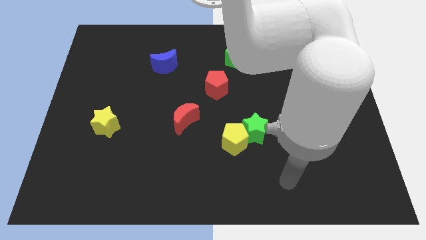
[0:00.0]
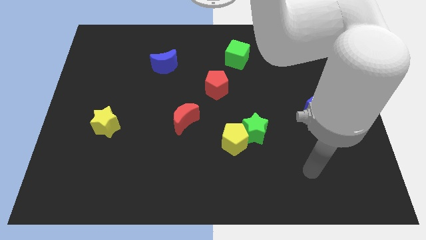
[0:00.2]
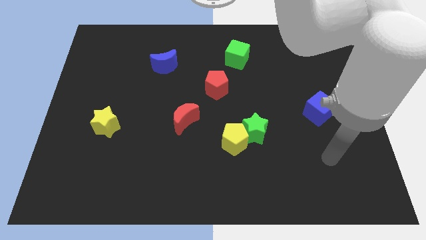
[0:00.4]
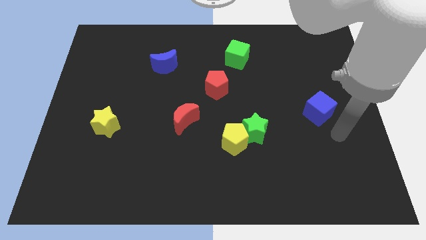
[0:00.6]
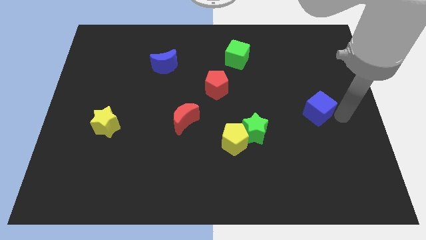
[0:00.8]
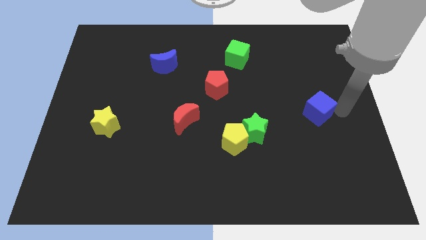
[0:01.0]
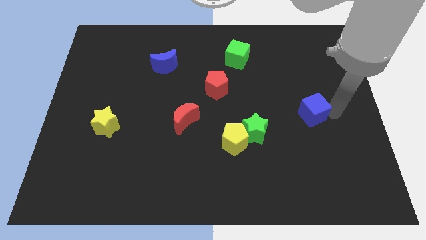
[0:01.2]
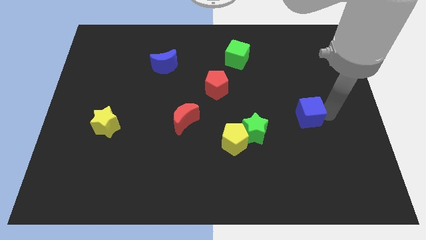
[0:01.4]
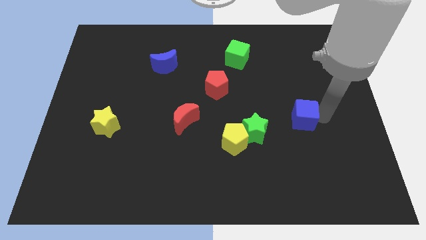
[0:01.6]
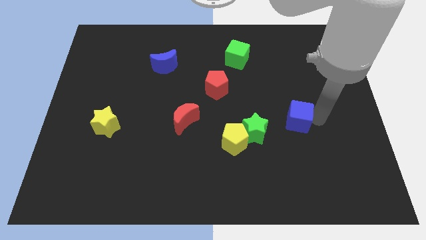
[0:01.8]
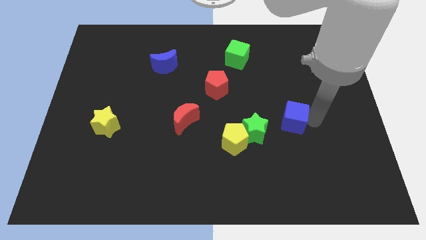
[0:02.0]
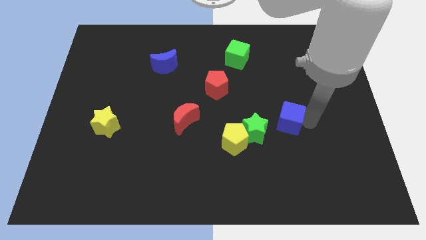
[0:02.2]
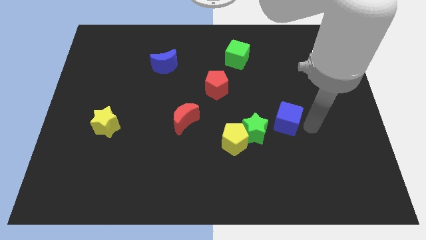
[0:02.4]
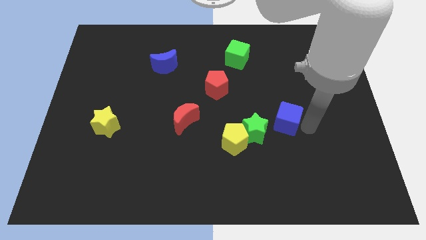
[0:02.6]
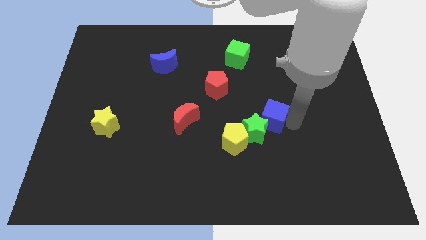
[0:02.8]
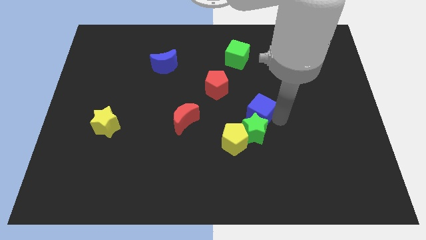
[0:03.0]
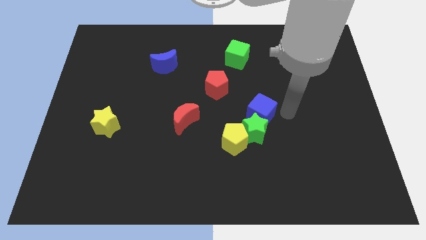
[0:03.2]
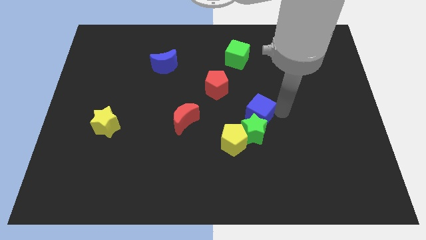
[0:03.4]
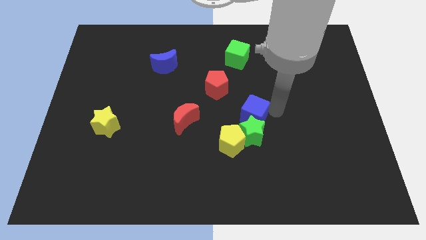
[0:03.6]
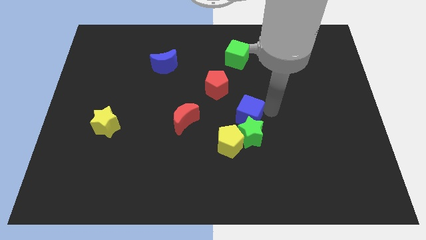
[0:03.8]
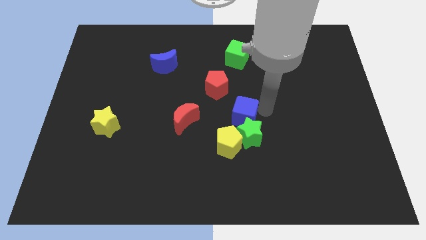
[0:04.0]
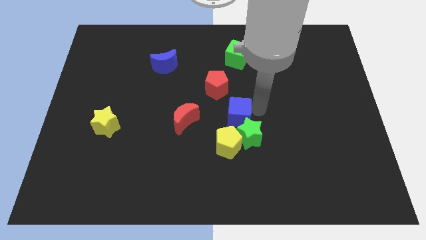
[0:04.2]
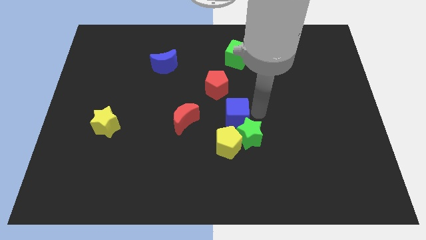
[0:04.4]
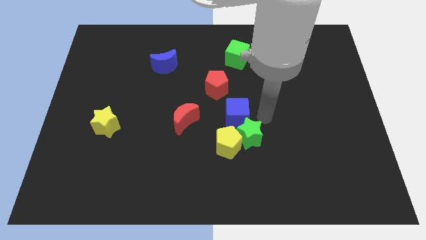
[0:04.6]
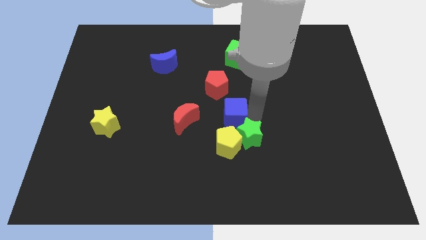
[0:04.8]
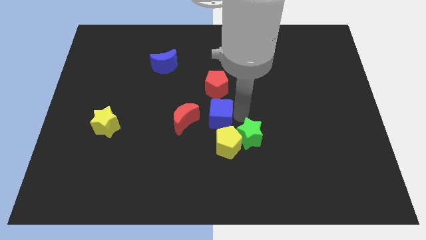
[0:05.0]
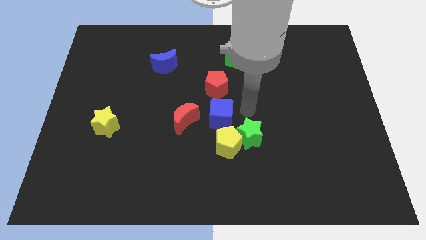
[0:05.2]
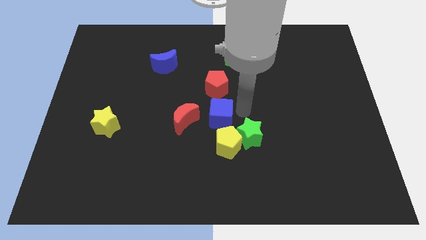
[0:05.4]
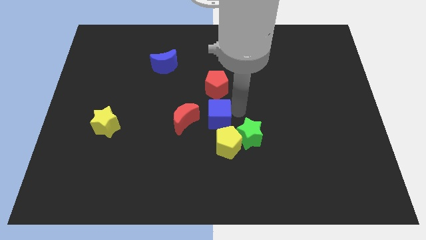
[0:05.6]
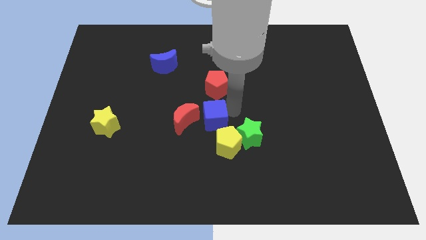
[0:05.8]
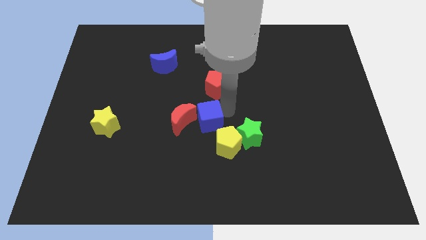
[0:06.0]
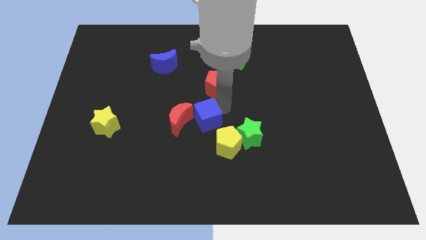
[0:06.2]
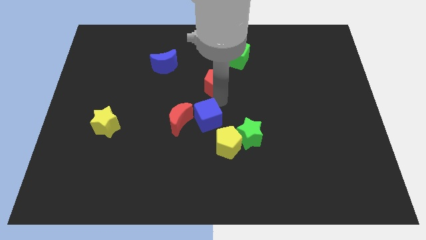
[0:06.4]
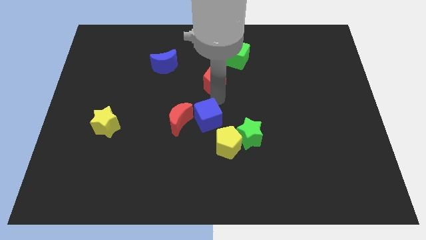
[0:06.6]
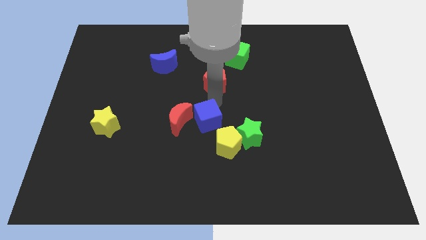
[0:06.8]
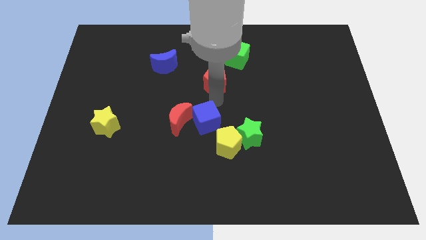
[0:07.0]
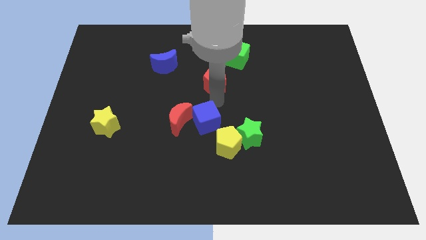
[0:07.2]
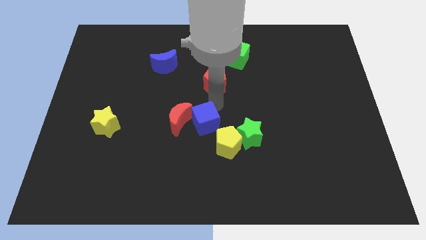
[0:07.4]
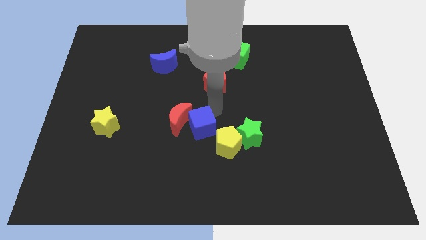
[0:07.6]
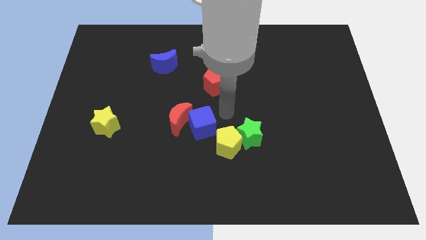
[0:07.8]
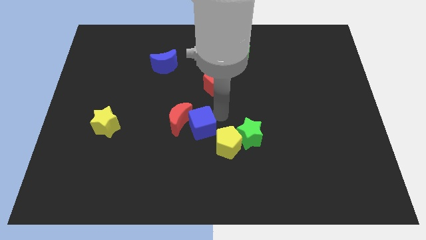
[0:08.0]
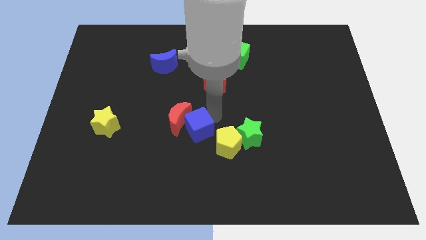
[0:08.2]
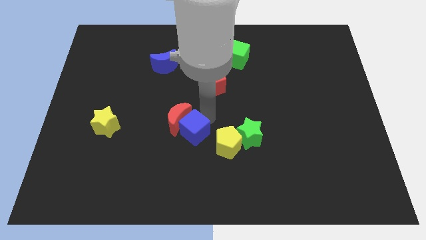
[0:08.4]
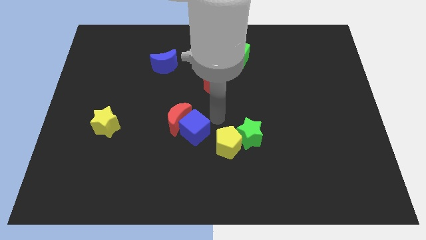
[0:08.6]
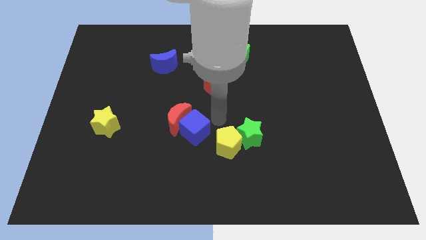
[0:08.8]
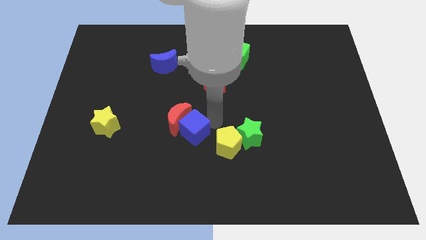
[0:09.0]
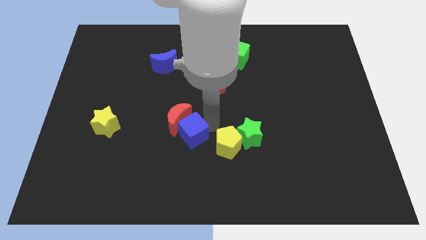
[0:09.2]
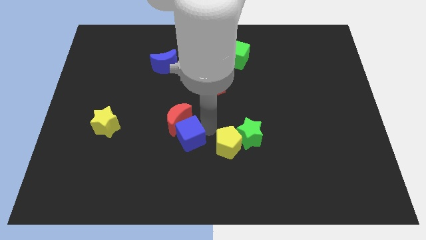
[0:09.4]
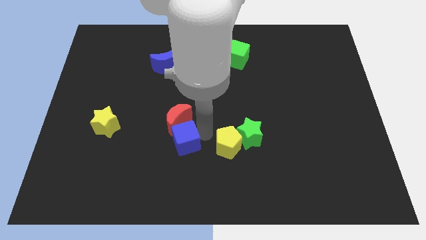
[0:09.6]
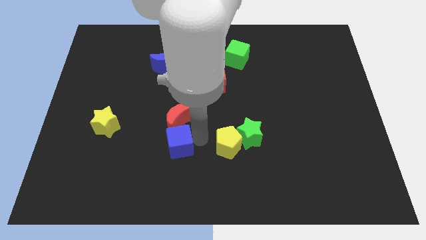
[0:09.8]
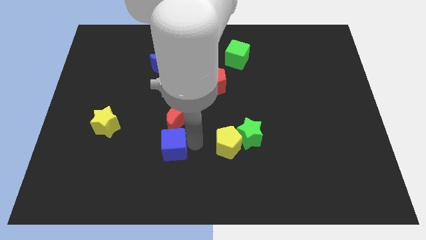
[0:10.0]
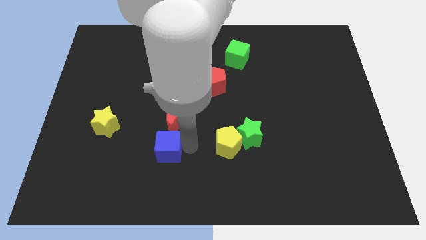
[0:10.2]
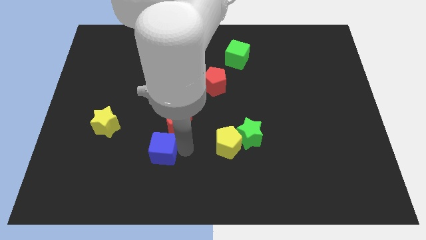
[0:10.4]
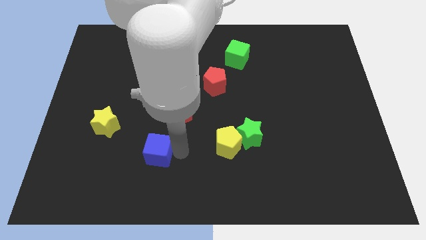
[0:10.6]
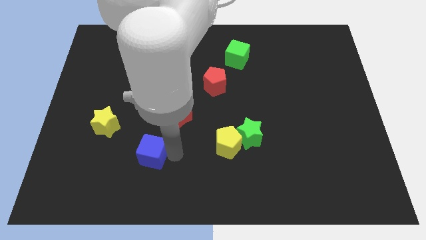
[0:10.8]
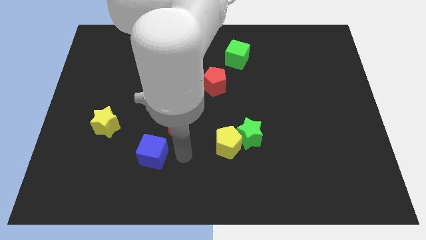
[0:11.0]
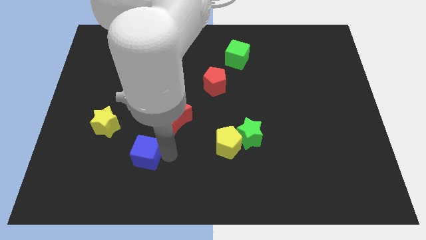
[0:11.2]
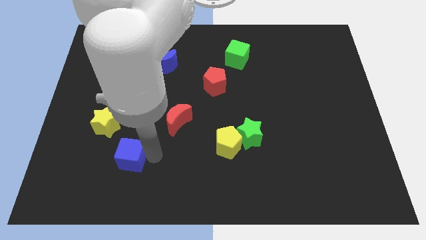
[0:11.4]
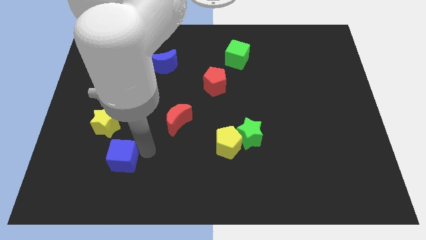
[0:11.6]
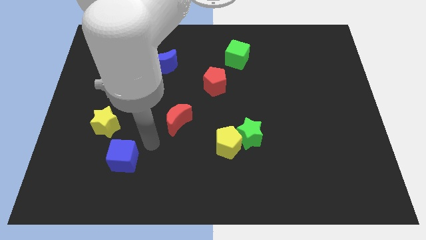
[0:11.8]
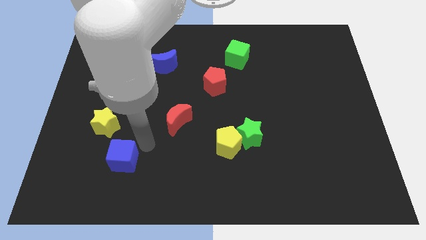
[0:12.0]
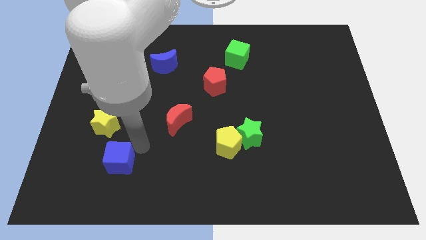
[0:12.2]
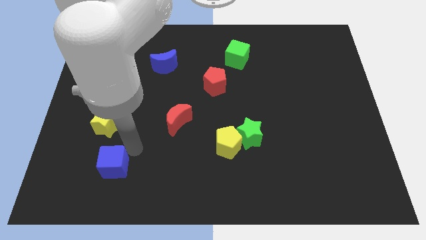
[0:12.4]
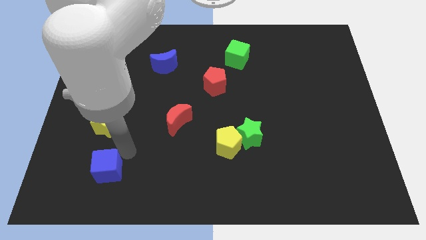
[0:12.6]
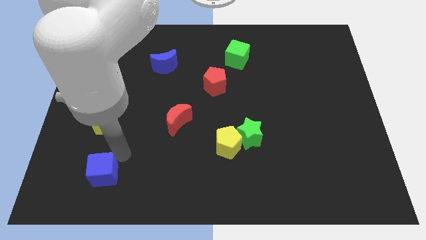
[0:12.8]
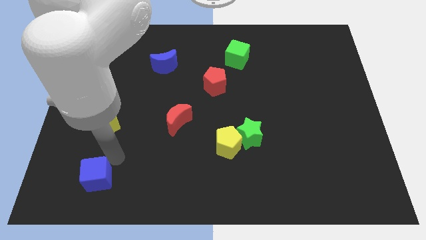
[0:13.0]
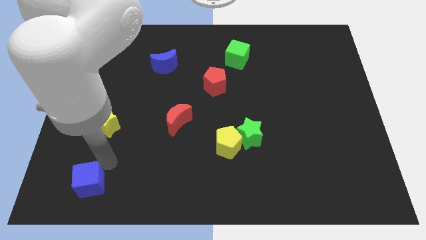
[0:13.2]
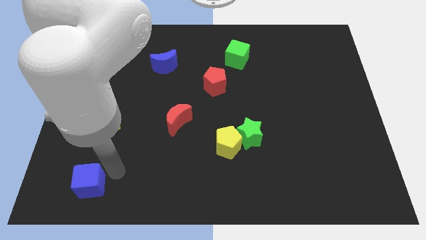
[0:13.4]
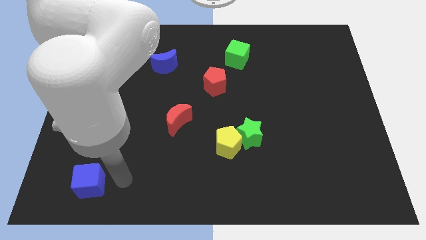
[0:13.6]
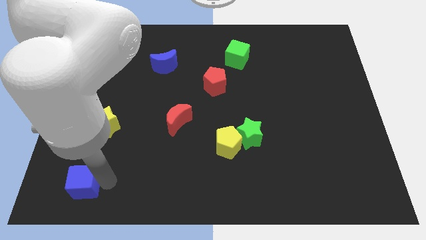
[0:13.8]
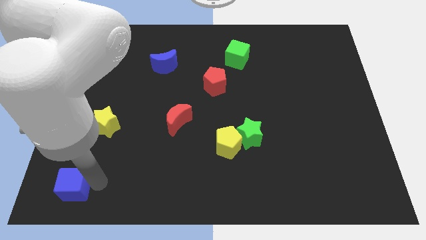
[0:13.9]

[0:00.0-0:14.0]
slide the blue cube to the lower left corner

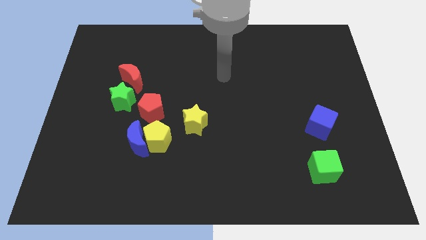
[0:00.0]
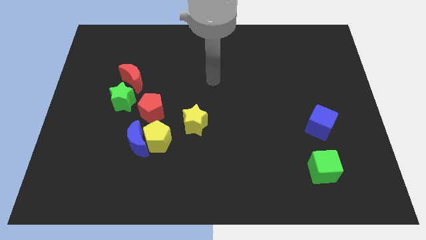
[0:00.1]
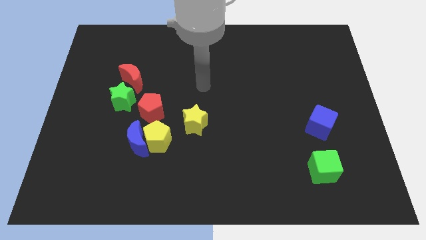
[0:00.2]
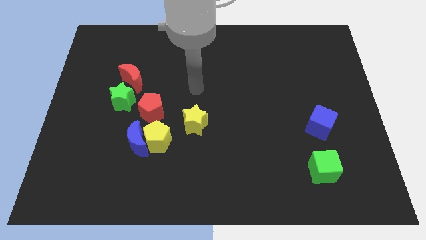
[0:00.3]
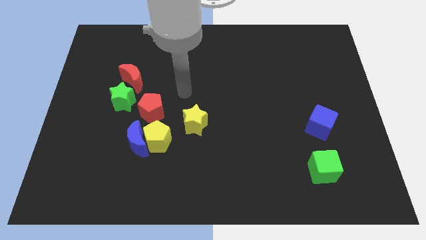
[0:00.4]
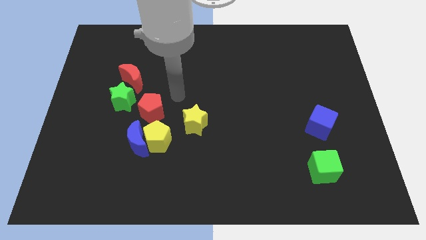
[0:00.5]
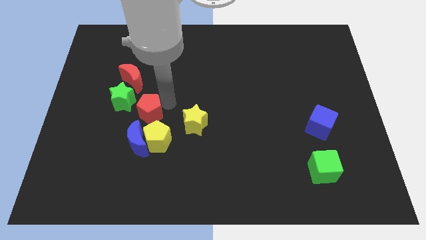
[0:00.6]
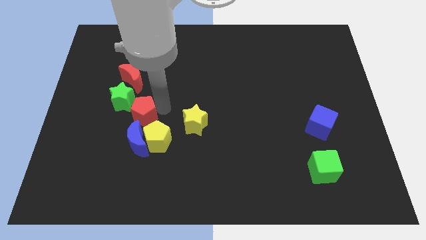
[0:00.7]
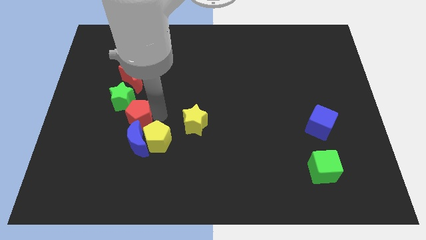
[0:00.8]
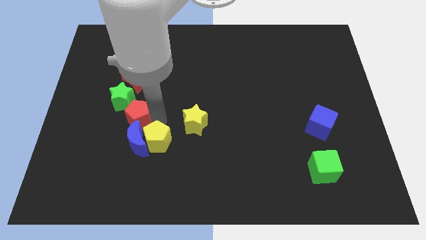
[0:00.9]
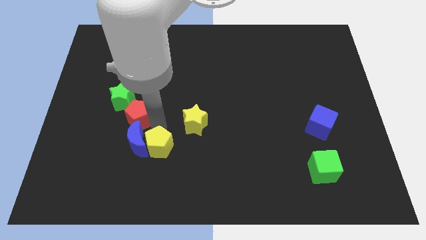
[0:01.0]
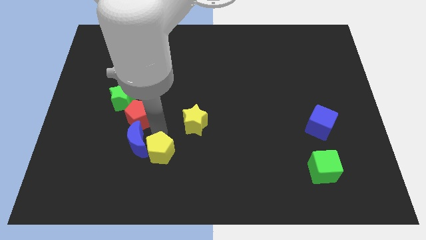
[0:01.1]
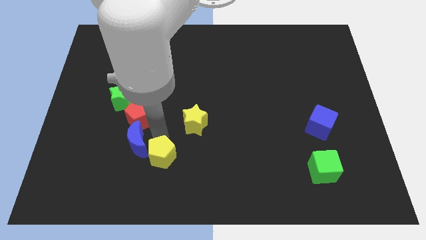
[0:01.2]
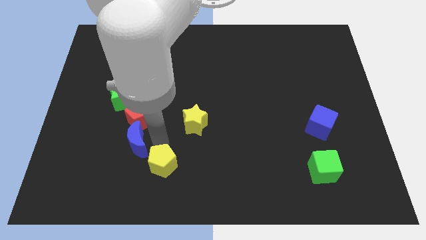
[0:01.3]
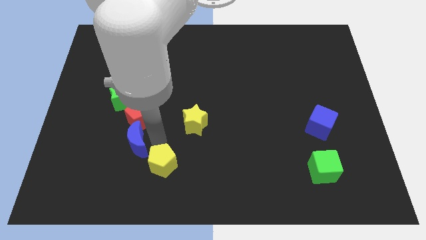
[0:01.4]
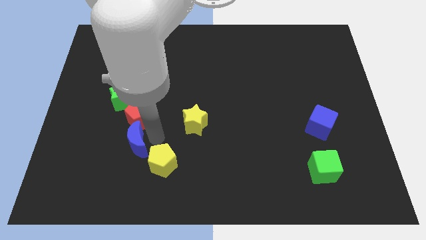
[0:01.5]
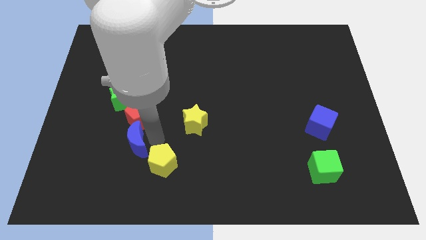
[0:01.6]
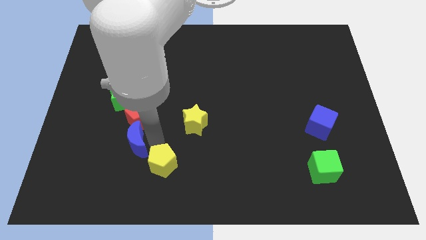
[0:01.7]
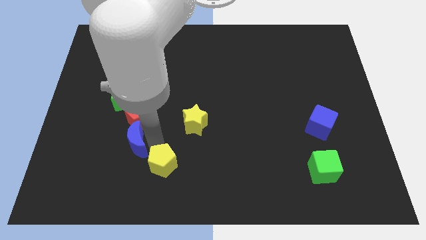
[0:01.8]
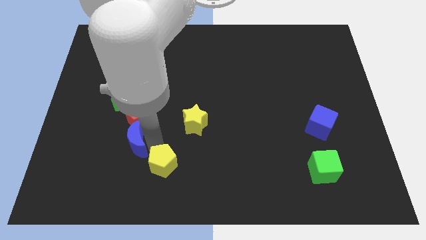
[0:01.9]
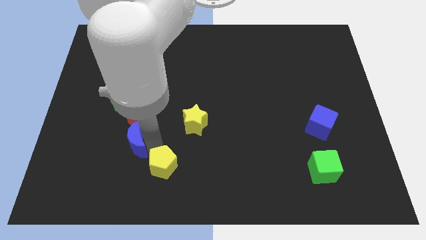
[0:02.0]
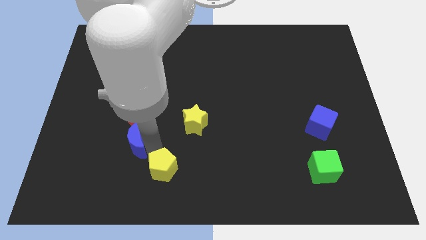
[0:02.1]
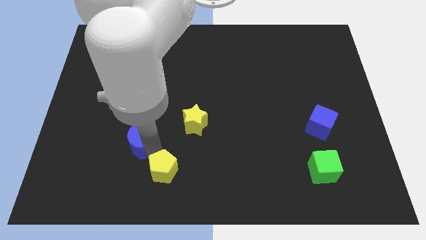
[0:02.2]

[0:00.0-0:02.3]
put the yellow pentagon to the bottom side
